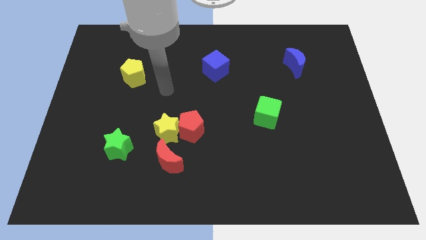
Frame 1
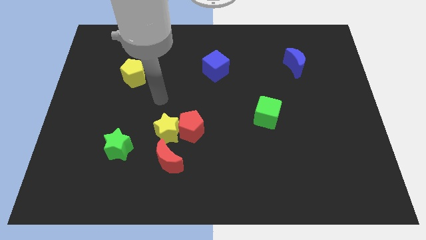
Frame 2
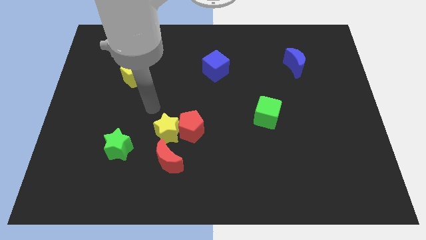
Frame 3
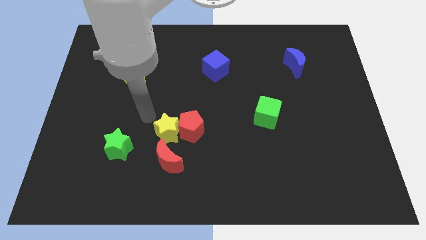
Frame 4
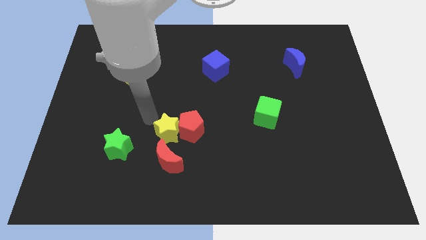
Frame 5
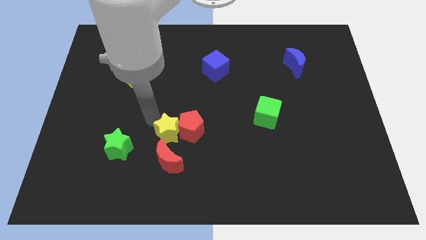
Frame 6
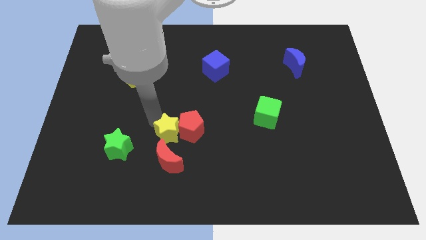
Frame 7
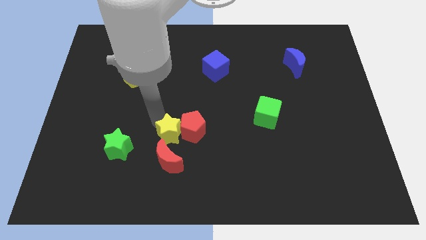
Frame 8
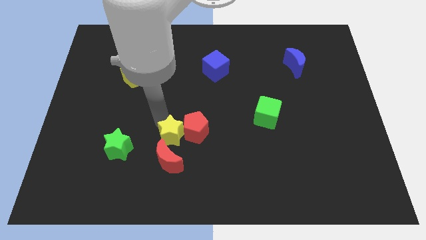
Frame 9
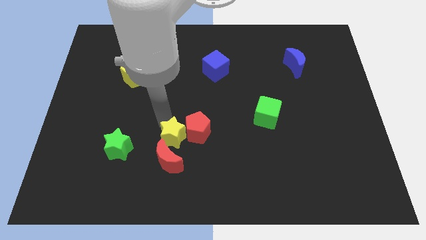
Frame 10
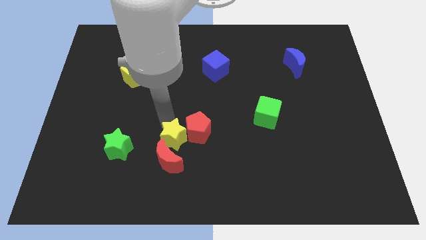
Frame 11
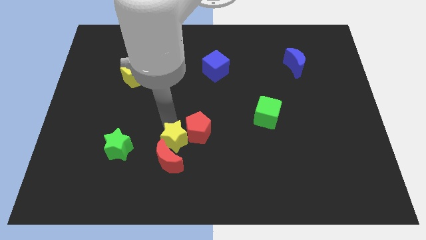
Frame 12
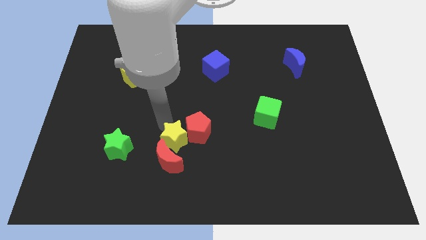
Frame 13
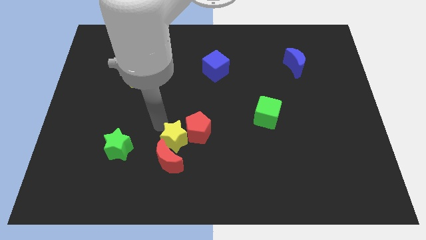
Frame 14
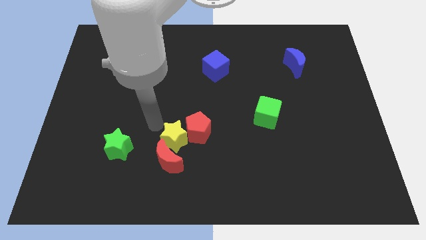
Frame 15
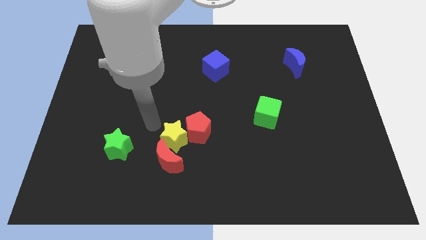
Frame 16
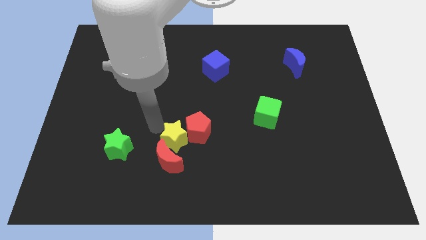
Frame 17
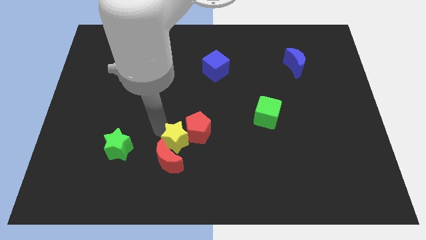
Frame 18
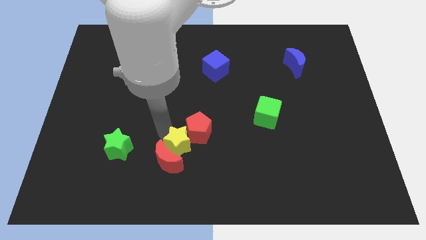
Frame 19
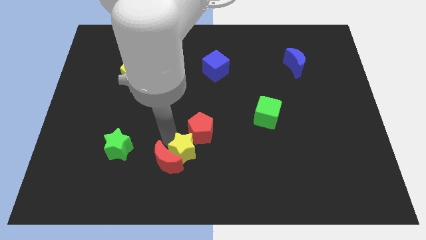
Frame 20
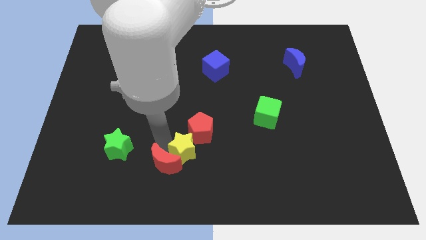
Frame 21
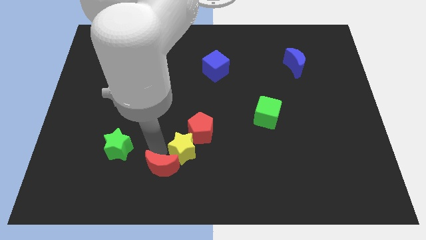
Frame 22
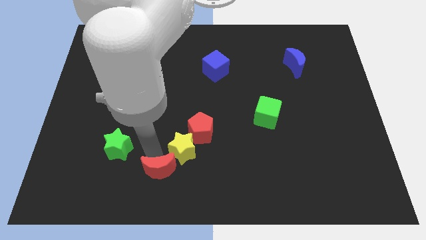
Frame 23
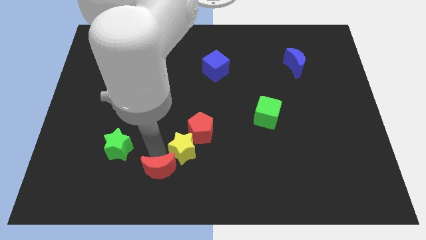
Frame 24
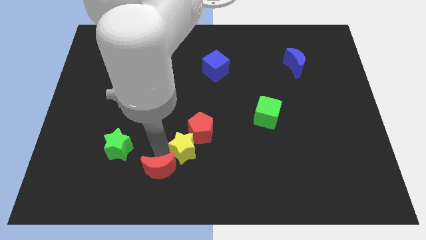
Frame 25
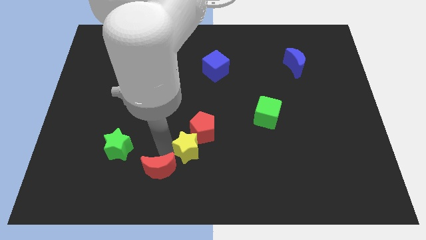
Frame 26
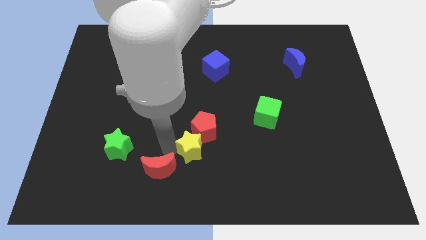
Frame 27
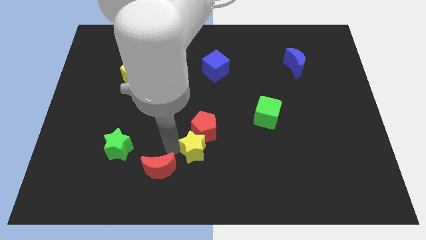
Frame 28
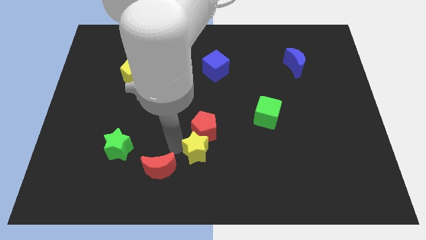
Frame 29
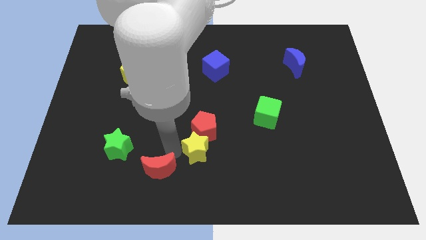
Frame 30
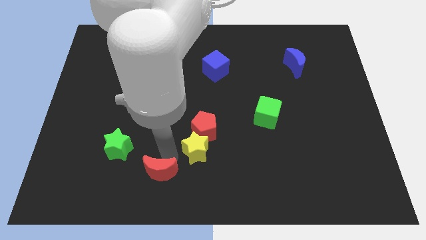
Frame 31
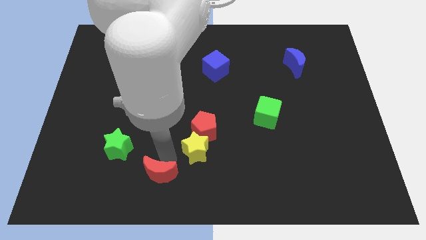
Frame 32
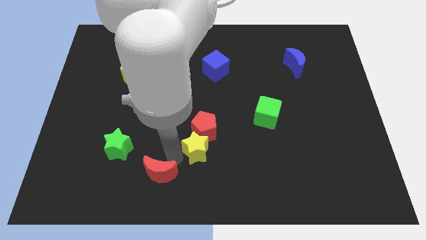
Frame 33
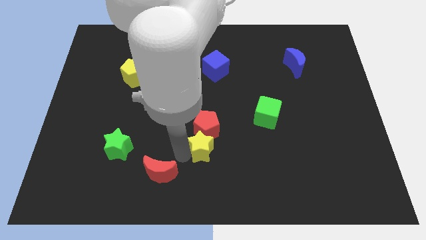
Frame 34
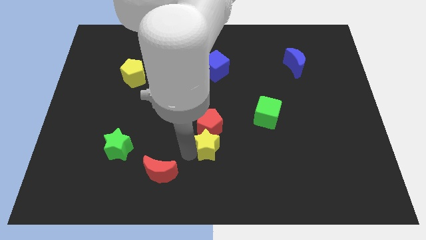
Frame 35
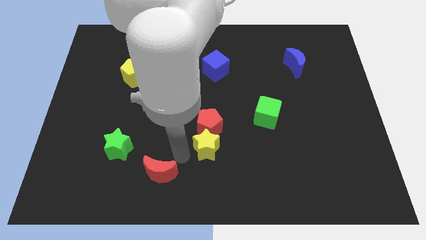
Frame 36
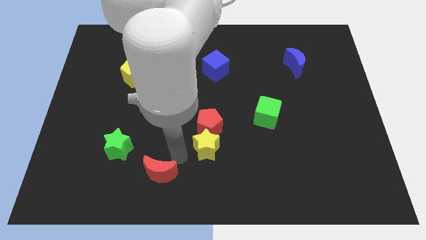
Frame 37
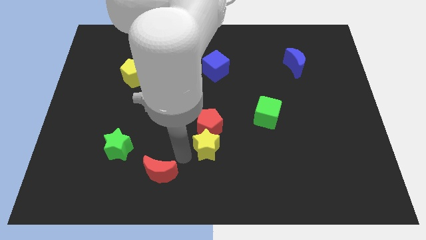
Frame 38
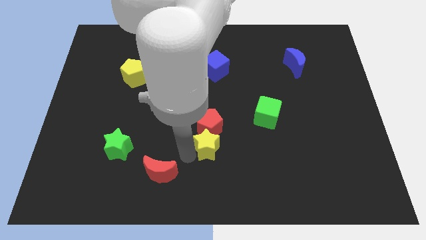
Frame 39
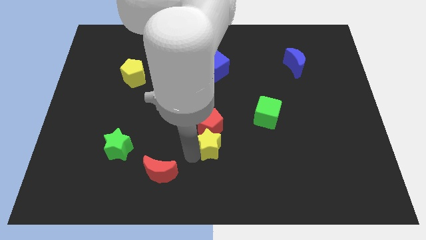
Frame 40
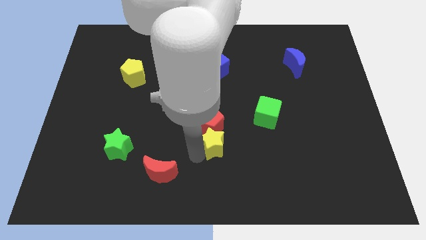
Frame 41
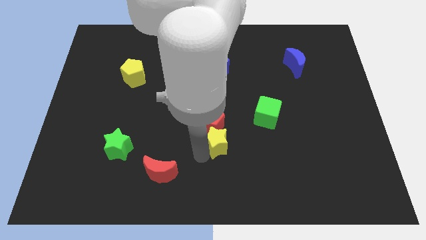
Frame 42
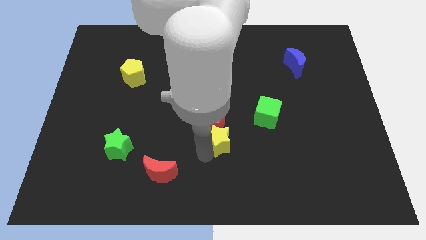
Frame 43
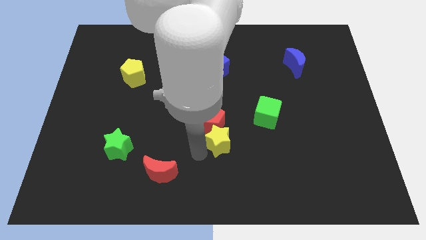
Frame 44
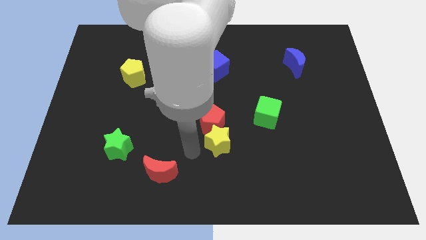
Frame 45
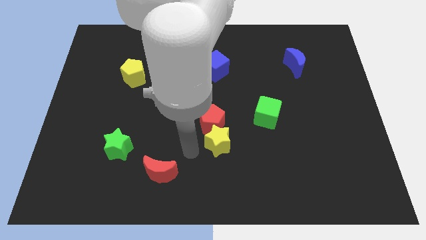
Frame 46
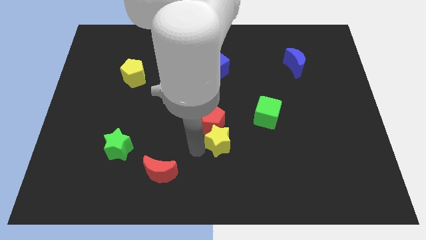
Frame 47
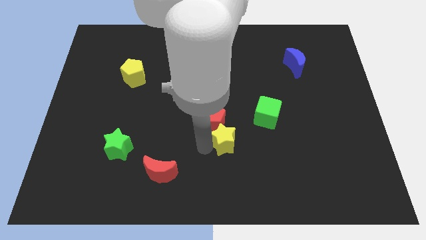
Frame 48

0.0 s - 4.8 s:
slide the yellow star to the bottom left side of the green cube

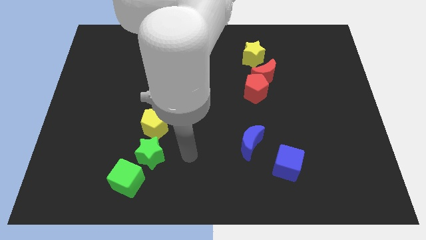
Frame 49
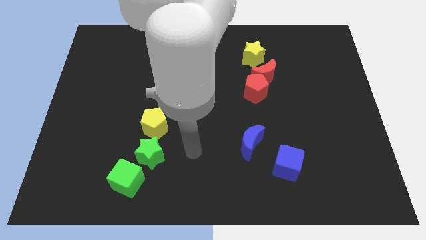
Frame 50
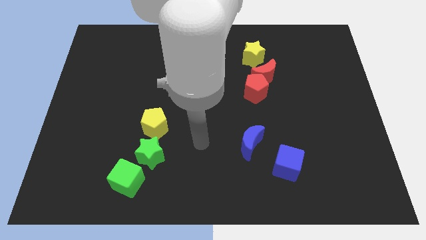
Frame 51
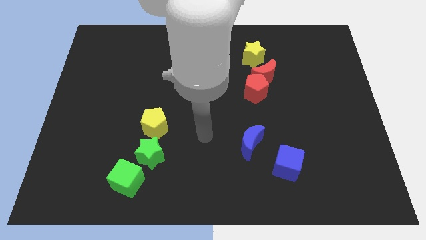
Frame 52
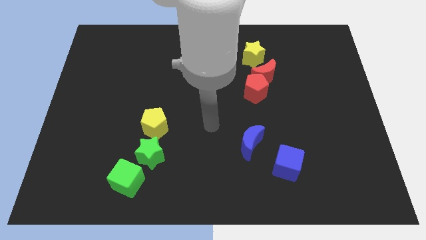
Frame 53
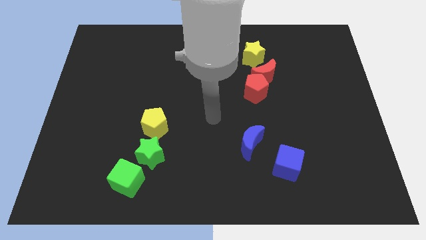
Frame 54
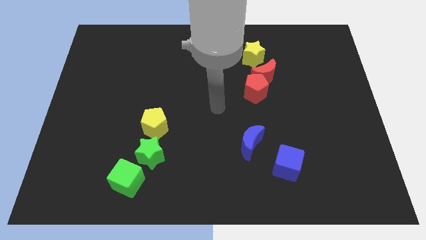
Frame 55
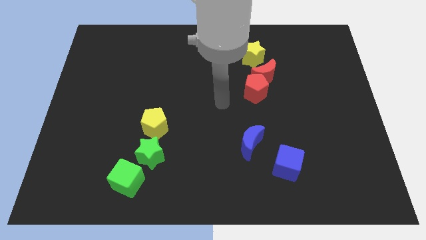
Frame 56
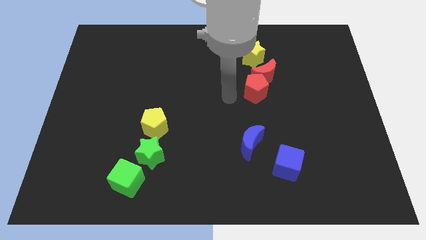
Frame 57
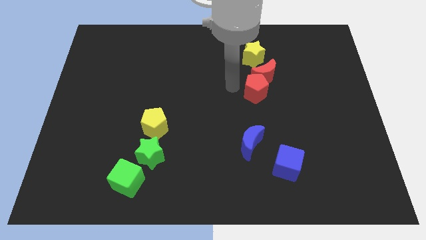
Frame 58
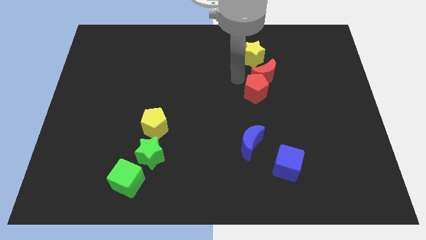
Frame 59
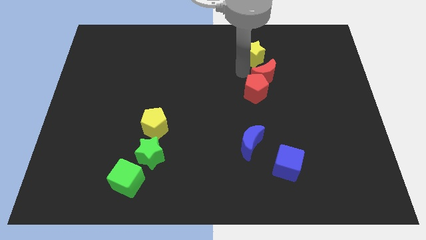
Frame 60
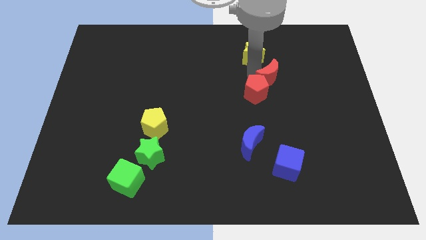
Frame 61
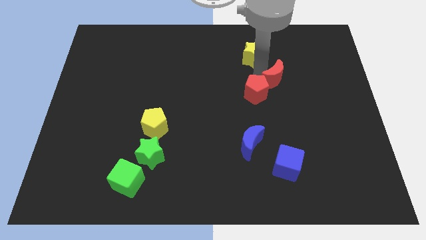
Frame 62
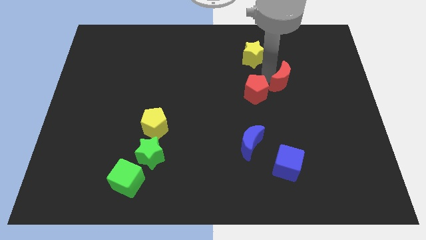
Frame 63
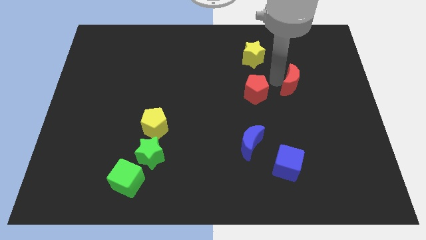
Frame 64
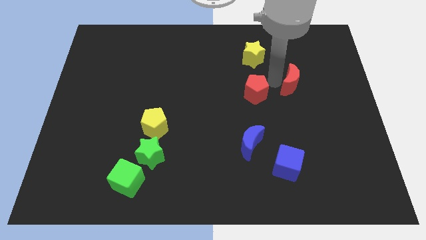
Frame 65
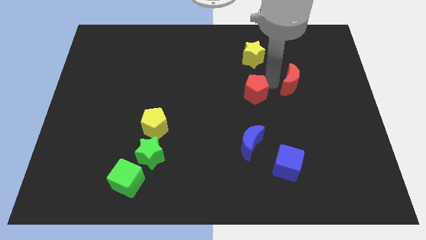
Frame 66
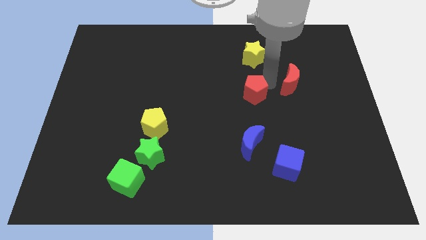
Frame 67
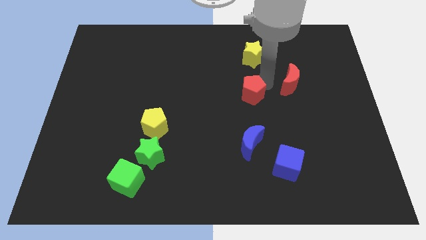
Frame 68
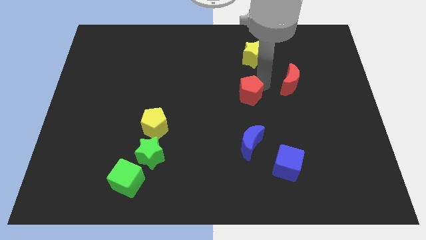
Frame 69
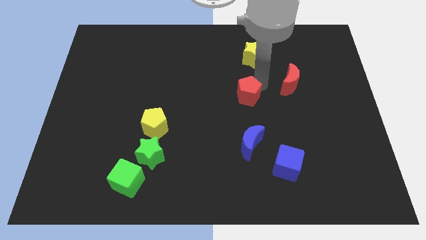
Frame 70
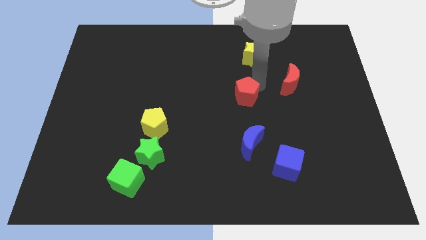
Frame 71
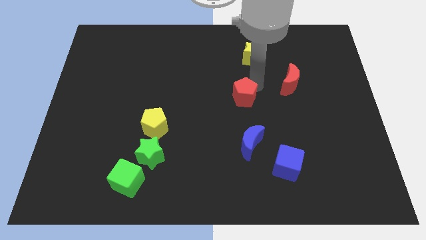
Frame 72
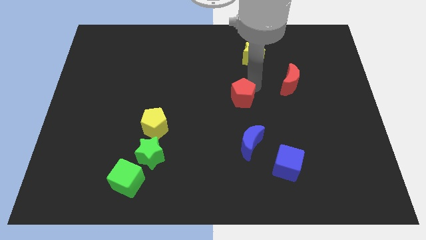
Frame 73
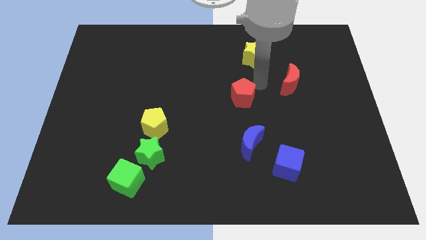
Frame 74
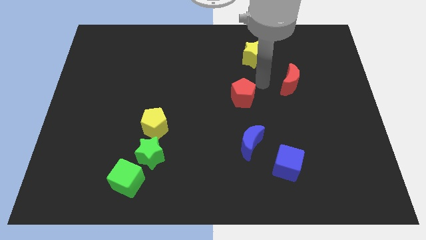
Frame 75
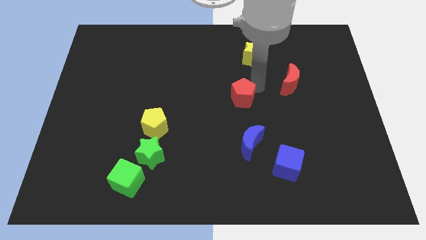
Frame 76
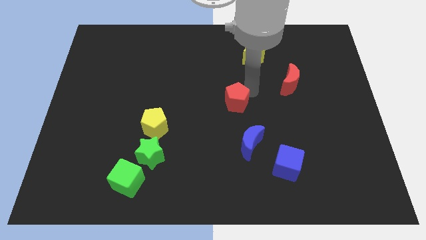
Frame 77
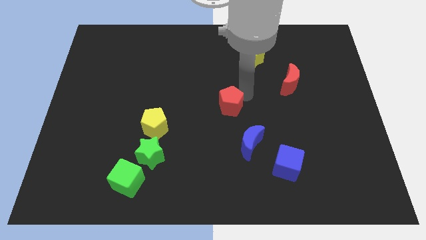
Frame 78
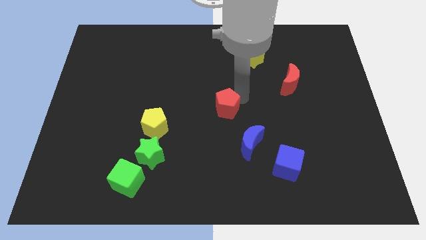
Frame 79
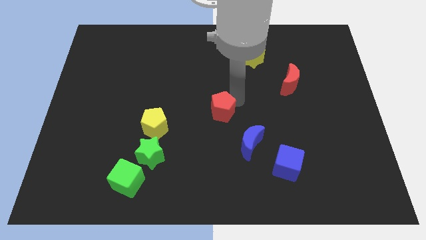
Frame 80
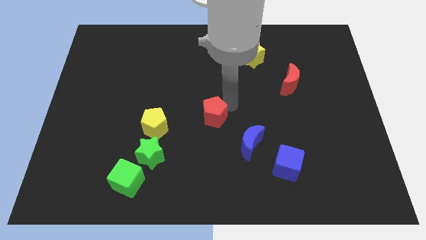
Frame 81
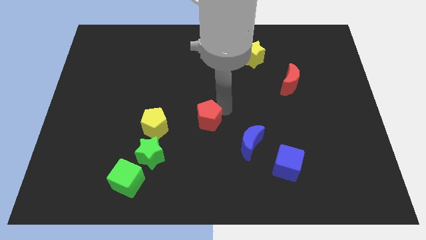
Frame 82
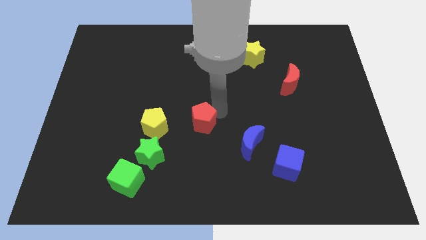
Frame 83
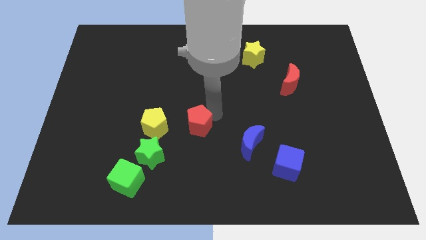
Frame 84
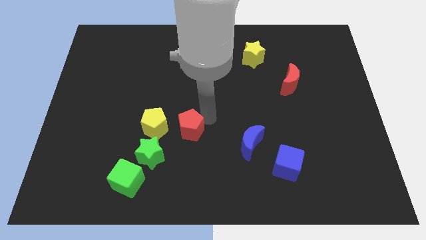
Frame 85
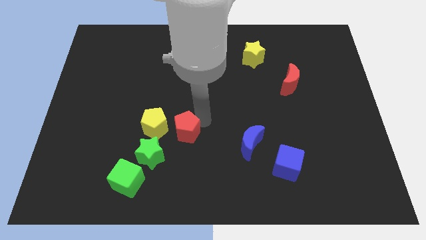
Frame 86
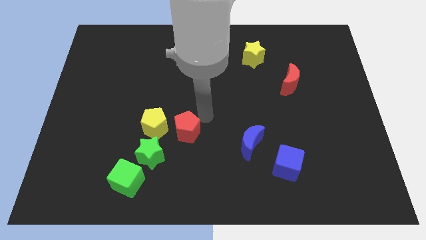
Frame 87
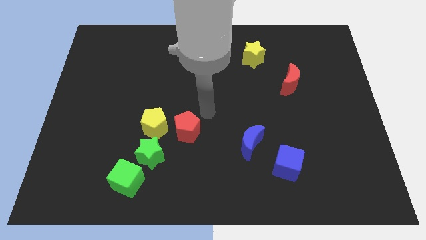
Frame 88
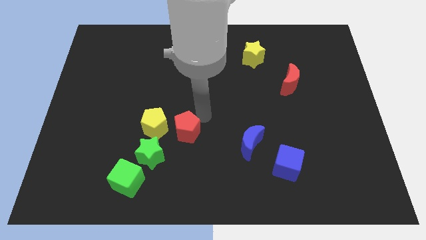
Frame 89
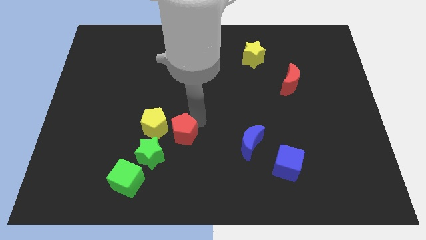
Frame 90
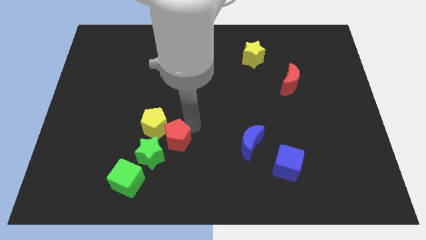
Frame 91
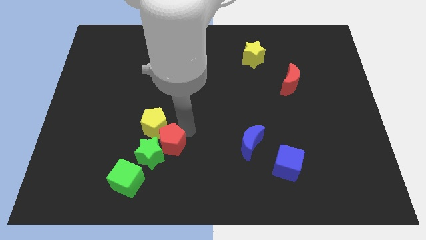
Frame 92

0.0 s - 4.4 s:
push the red pentagon to the top right side of the green cube
